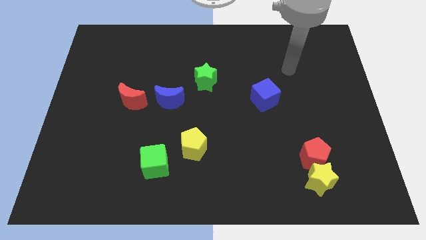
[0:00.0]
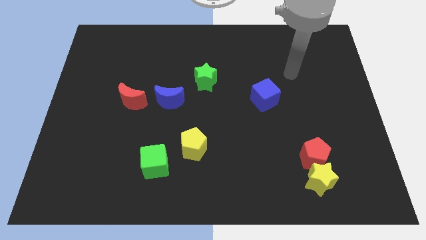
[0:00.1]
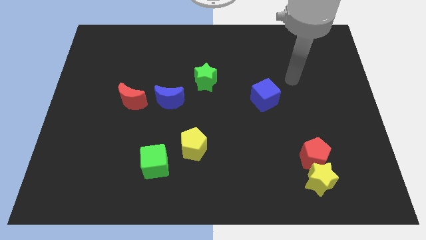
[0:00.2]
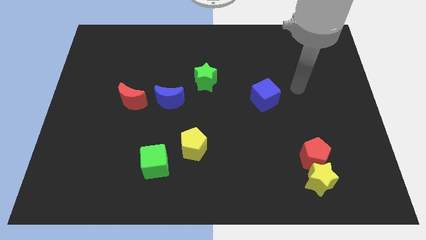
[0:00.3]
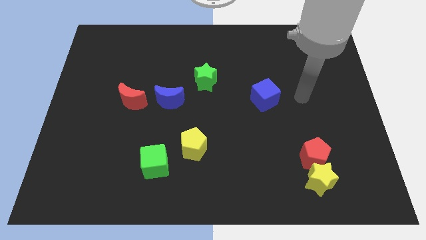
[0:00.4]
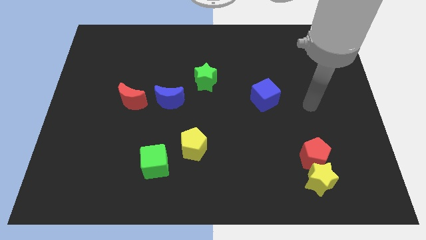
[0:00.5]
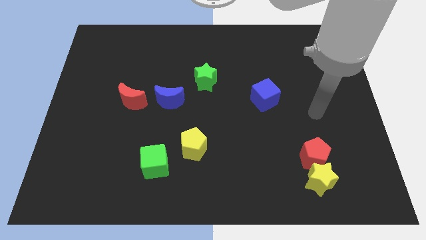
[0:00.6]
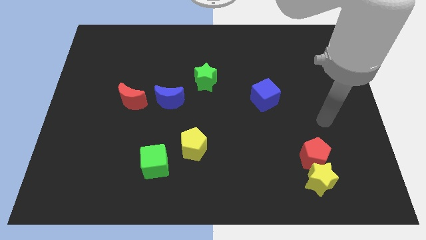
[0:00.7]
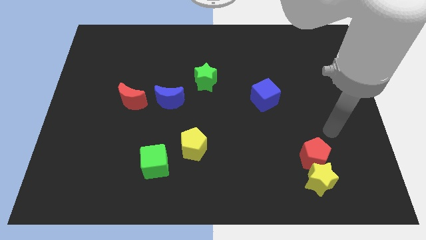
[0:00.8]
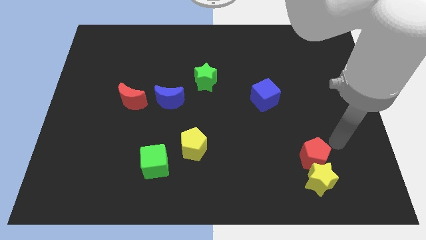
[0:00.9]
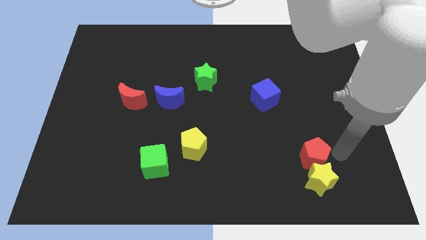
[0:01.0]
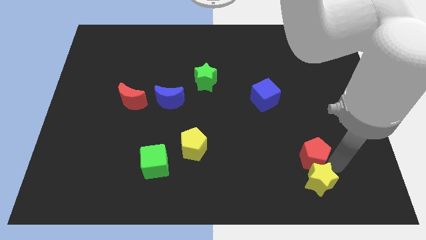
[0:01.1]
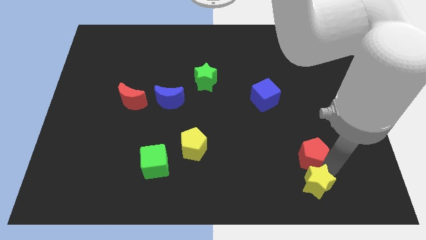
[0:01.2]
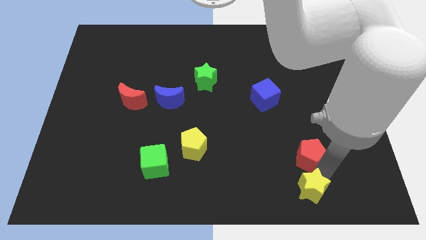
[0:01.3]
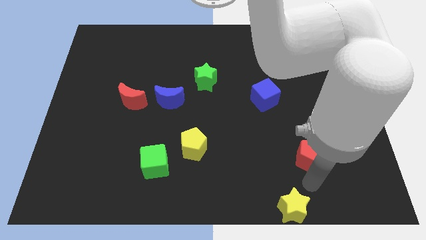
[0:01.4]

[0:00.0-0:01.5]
separate the red pentagon from the yellow star

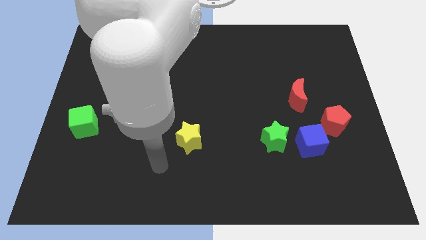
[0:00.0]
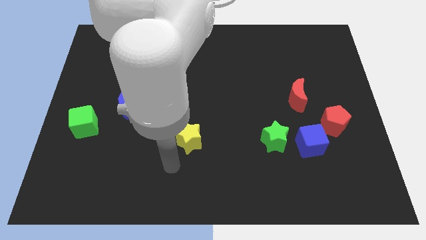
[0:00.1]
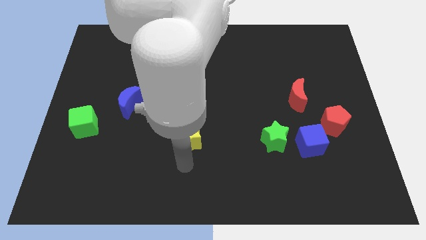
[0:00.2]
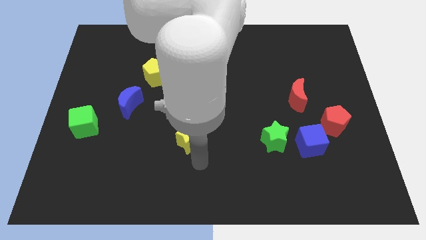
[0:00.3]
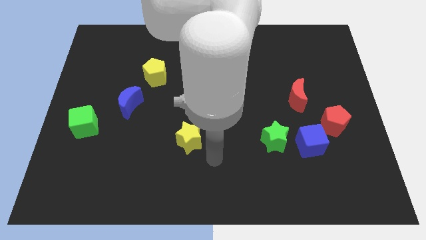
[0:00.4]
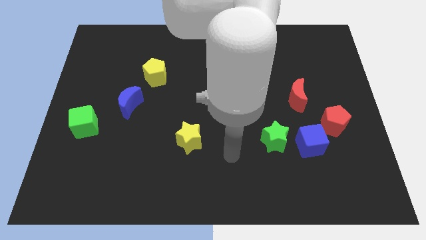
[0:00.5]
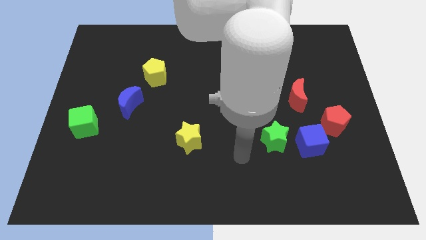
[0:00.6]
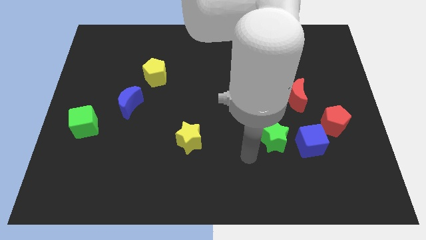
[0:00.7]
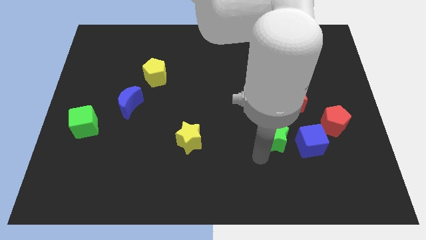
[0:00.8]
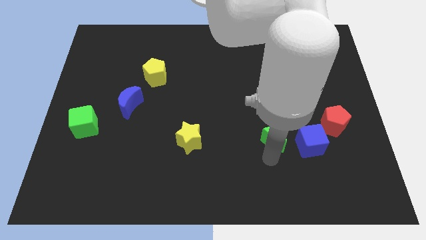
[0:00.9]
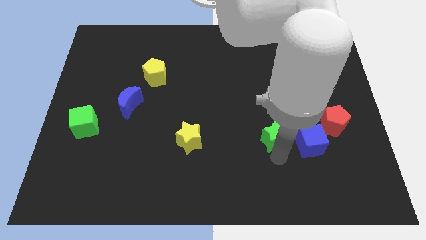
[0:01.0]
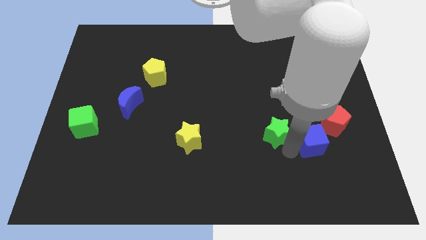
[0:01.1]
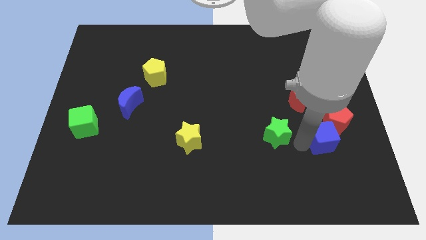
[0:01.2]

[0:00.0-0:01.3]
move the green star away from the blue cube

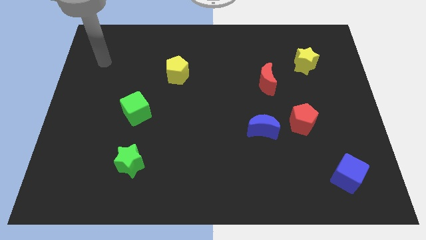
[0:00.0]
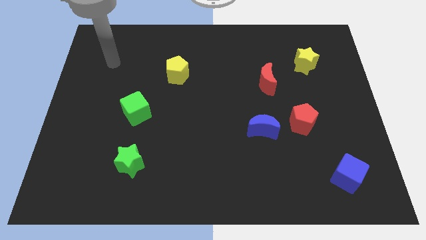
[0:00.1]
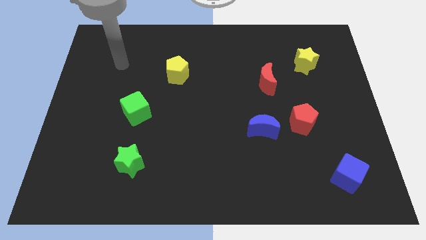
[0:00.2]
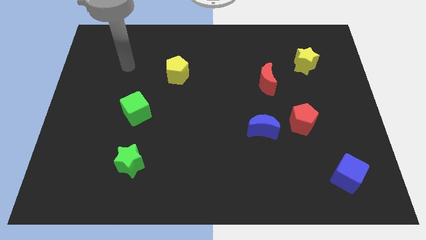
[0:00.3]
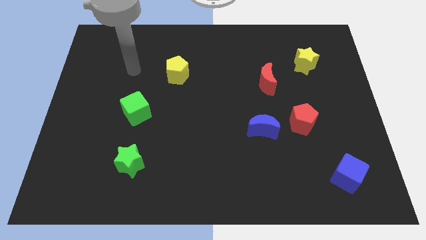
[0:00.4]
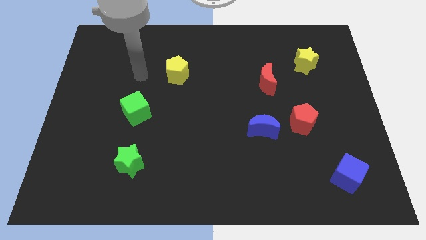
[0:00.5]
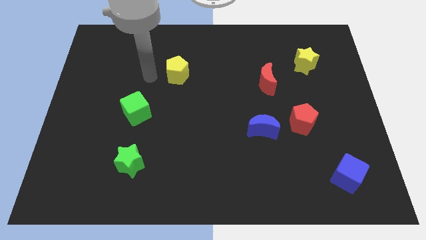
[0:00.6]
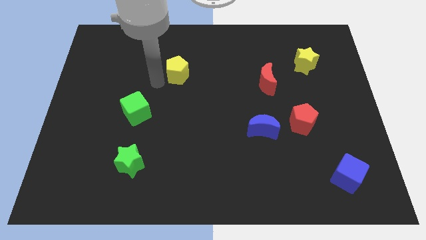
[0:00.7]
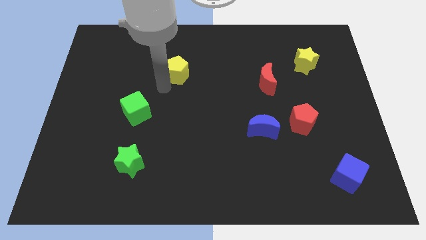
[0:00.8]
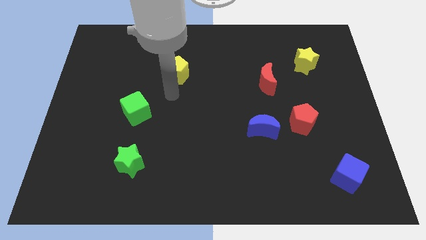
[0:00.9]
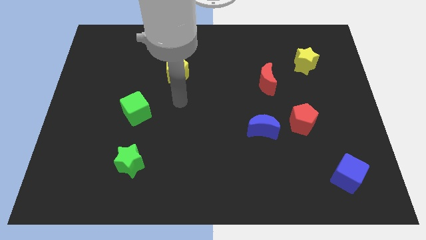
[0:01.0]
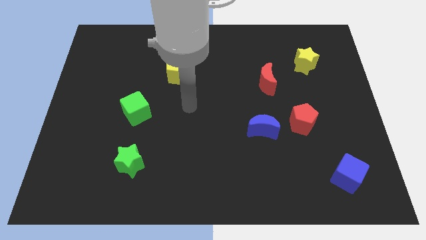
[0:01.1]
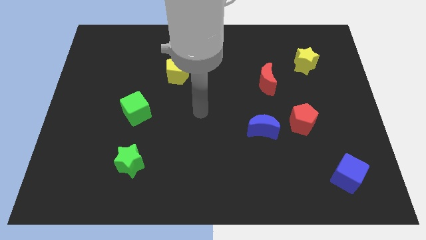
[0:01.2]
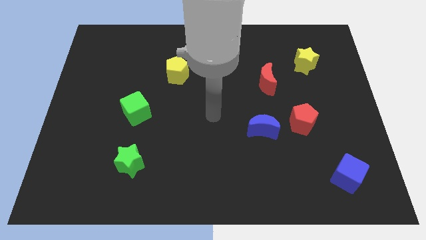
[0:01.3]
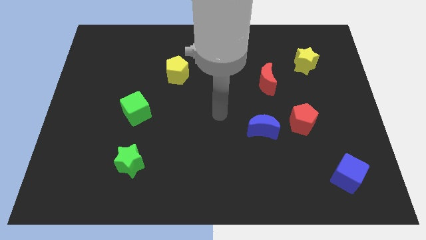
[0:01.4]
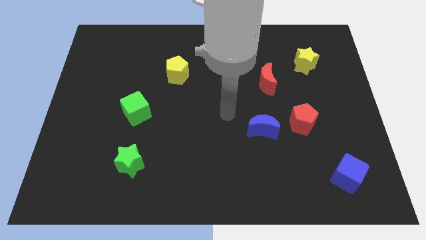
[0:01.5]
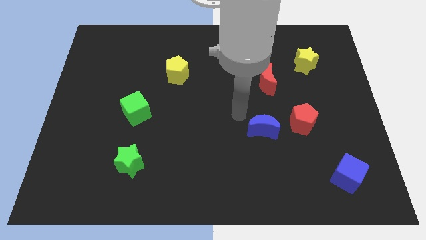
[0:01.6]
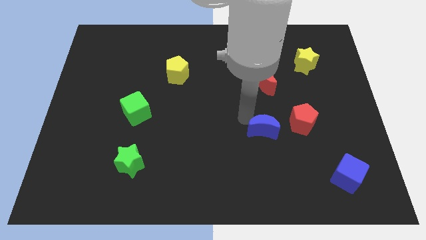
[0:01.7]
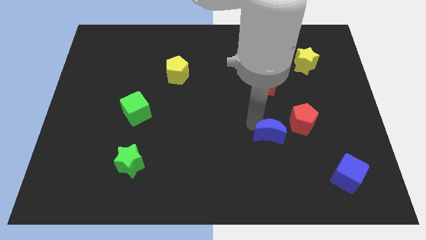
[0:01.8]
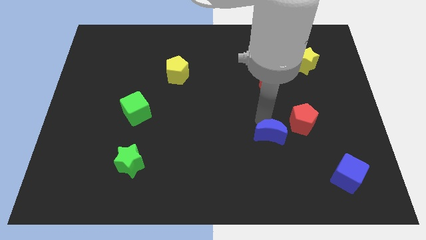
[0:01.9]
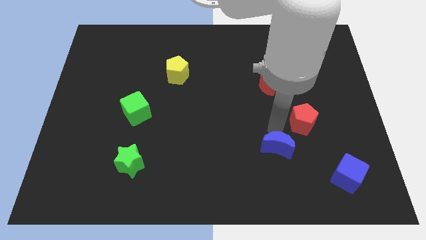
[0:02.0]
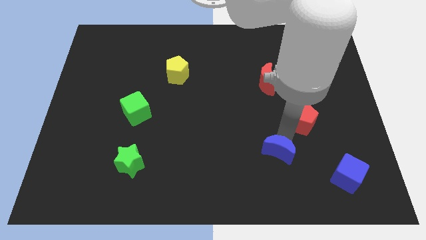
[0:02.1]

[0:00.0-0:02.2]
pull the red pentagon apart from the blue moon

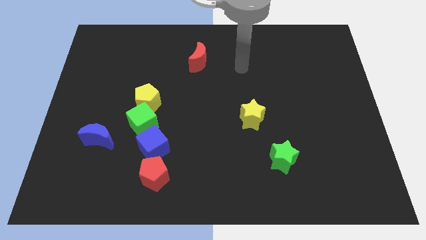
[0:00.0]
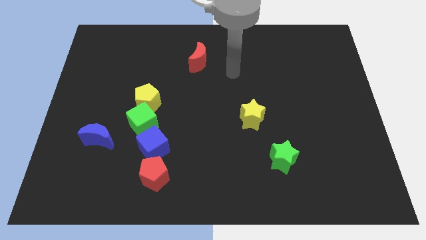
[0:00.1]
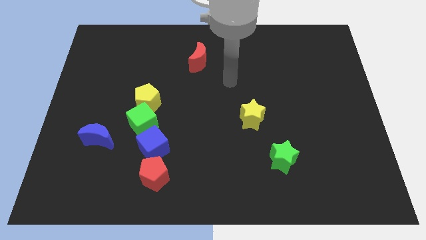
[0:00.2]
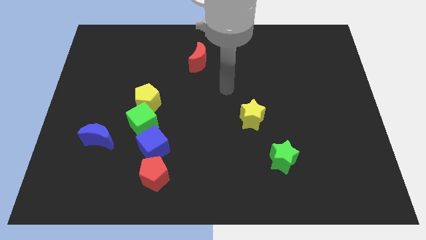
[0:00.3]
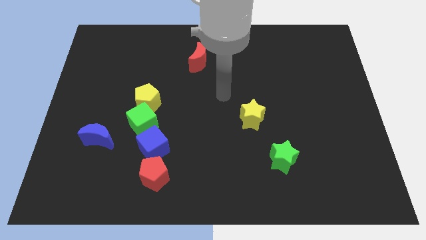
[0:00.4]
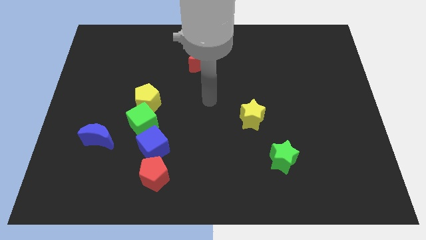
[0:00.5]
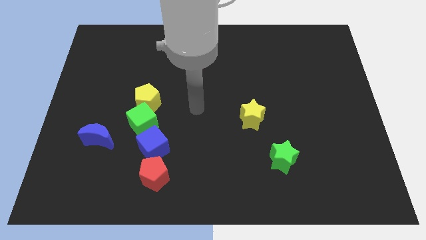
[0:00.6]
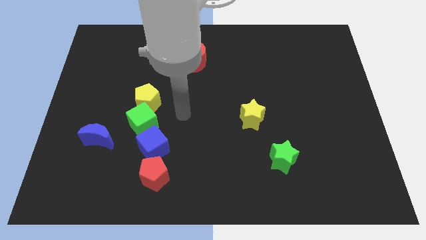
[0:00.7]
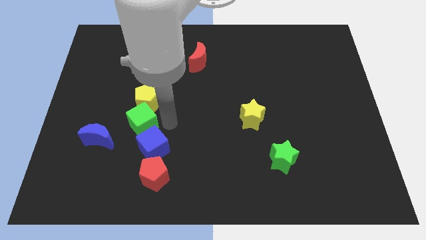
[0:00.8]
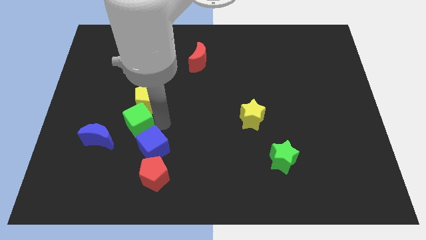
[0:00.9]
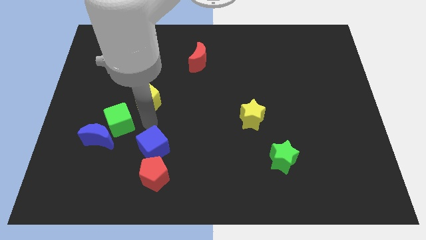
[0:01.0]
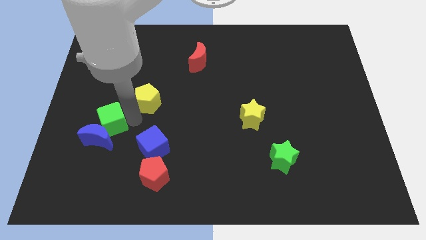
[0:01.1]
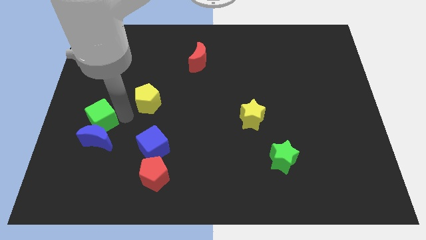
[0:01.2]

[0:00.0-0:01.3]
separate the yellow pentagon from the green cube

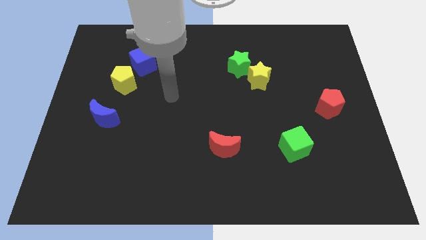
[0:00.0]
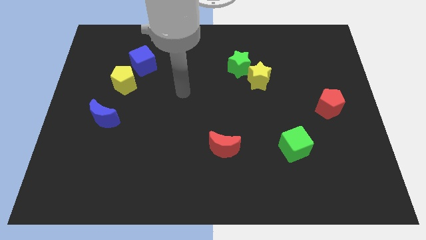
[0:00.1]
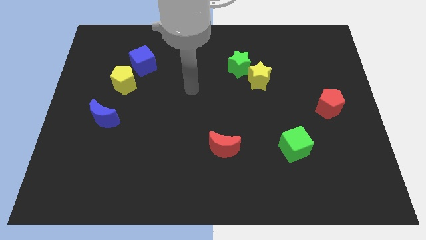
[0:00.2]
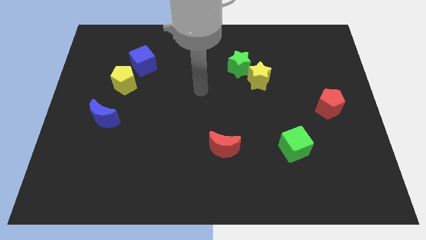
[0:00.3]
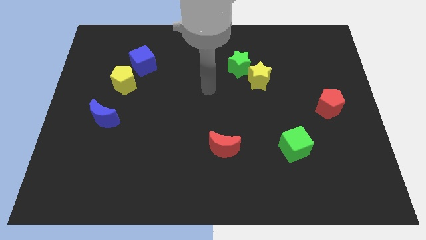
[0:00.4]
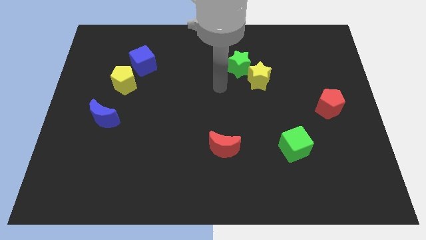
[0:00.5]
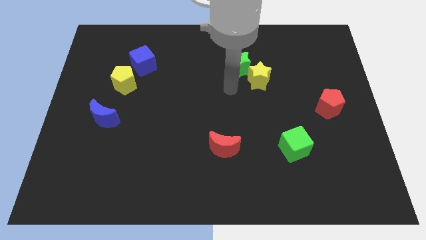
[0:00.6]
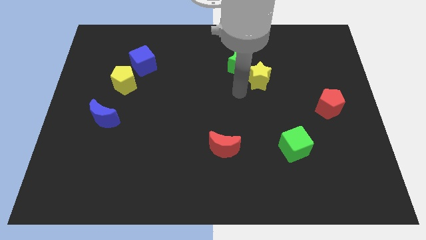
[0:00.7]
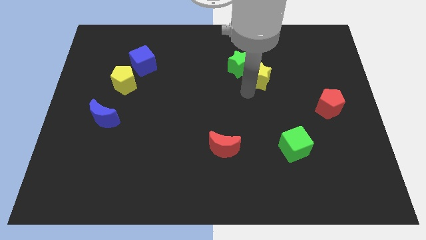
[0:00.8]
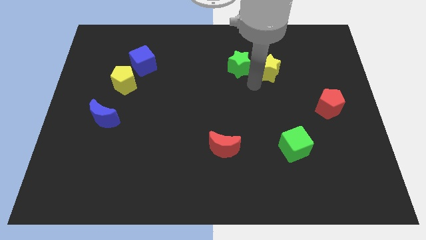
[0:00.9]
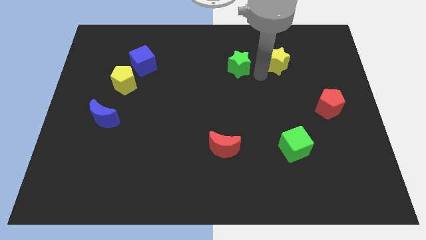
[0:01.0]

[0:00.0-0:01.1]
separate the green star from the yellow star

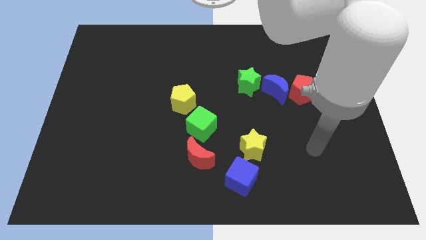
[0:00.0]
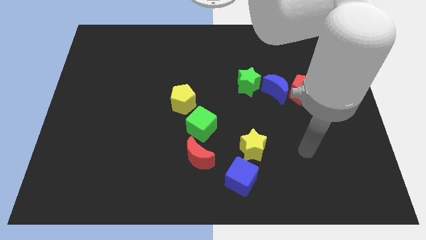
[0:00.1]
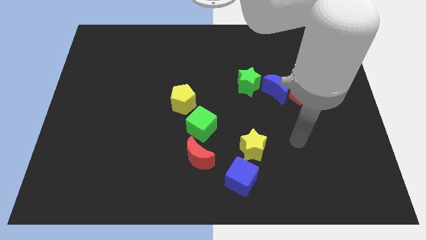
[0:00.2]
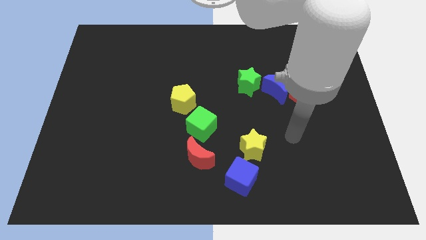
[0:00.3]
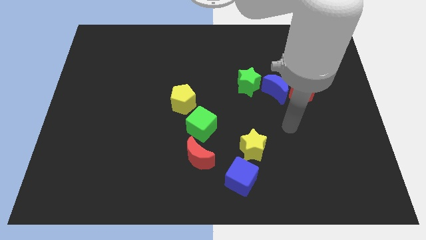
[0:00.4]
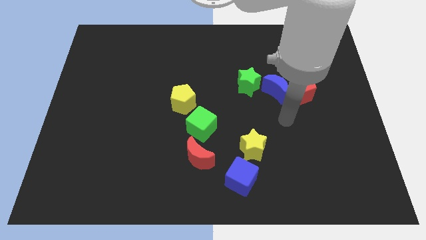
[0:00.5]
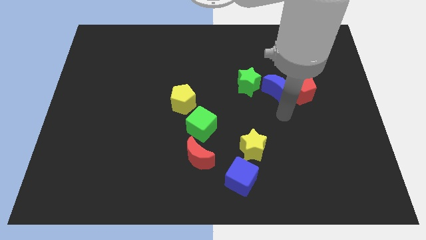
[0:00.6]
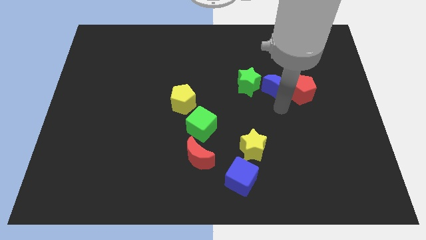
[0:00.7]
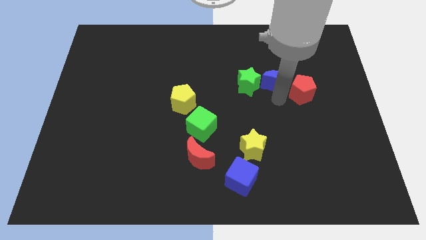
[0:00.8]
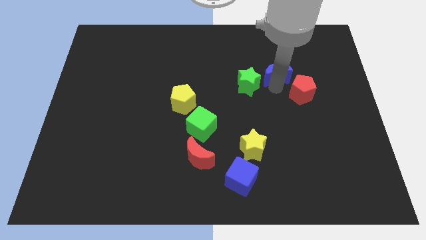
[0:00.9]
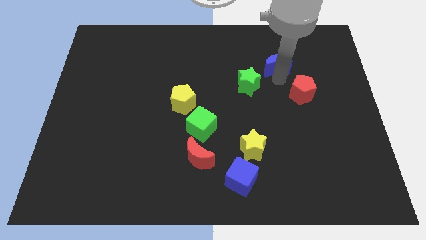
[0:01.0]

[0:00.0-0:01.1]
move the red pentagon away from the blue moon

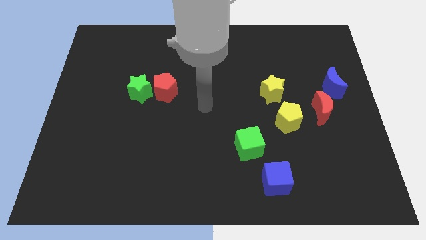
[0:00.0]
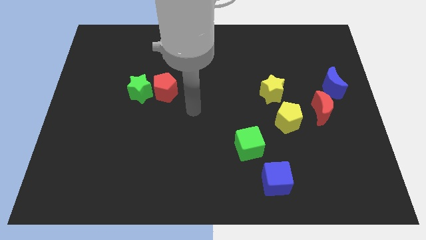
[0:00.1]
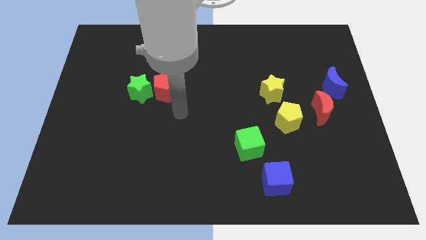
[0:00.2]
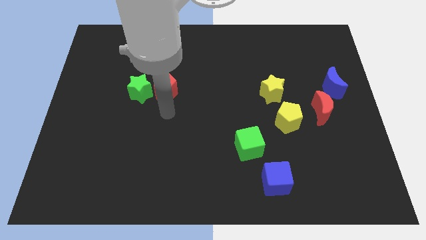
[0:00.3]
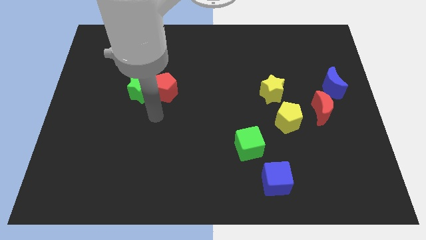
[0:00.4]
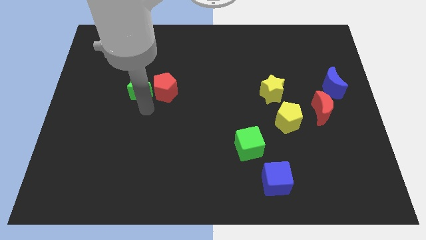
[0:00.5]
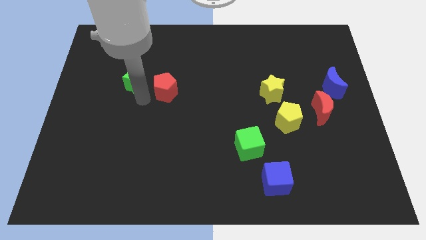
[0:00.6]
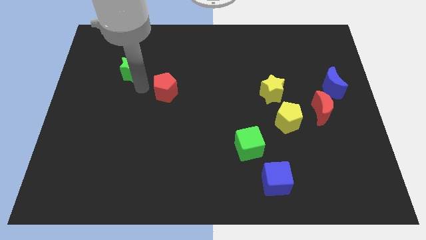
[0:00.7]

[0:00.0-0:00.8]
pull the red pentagon apart from the green star
